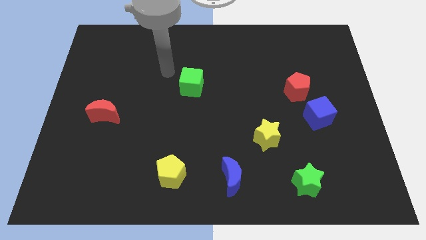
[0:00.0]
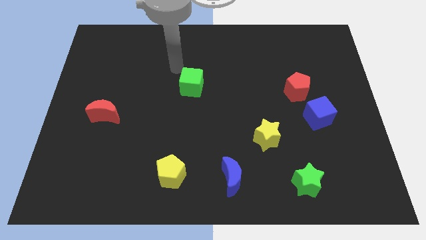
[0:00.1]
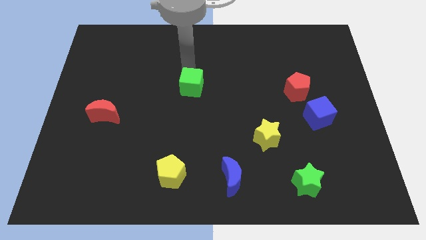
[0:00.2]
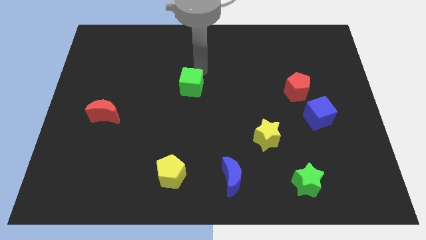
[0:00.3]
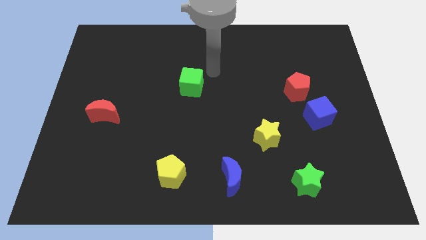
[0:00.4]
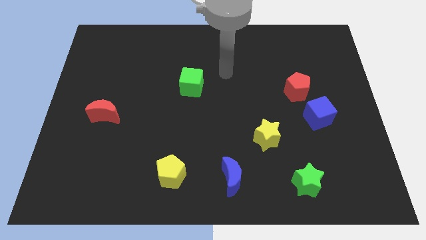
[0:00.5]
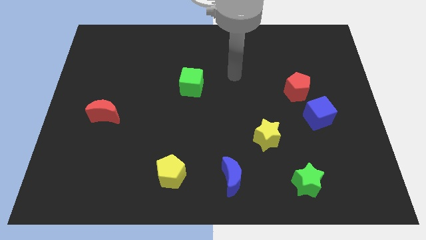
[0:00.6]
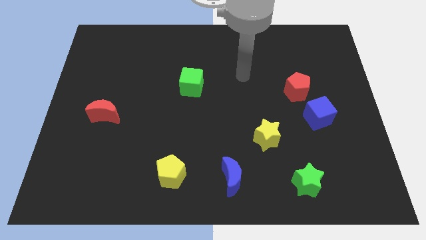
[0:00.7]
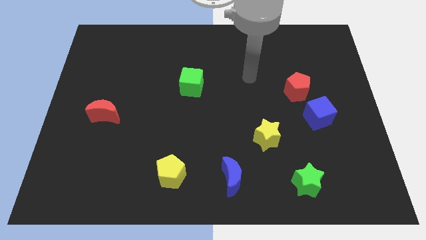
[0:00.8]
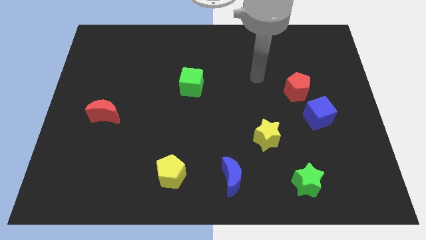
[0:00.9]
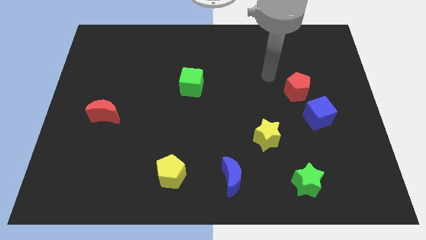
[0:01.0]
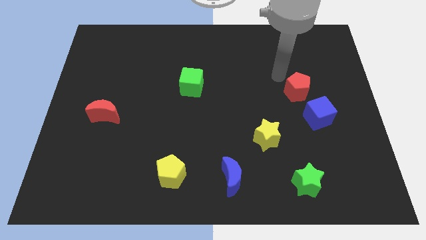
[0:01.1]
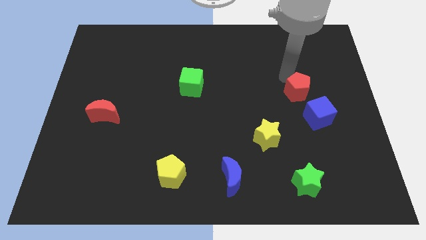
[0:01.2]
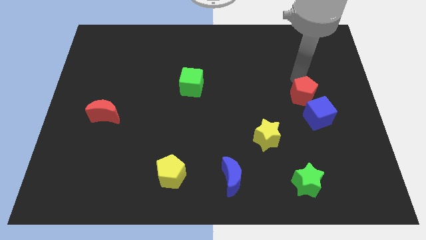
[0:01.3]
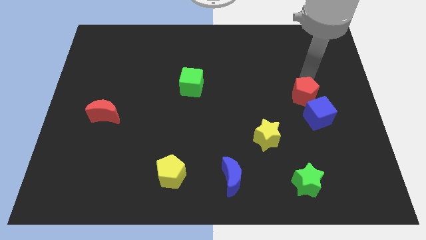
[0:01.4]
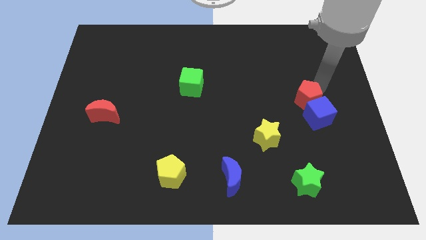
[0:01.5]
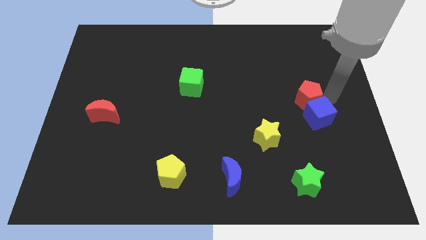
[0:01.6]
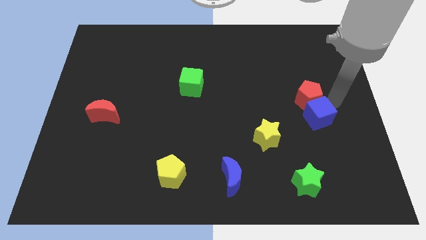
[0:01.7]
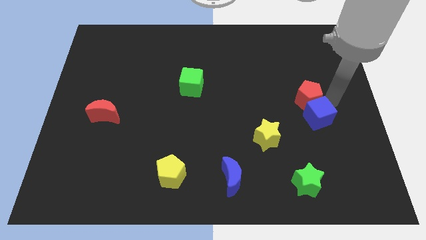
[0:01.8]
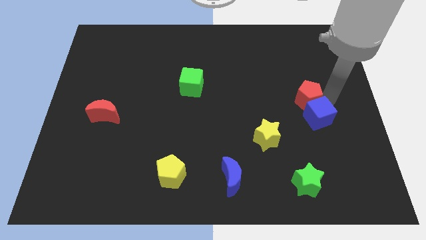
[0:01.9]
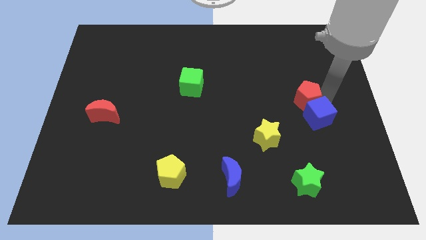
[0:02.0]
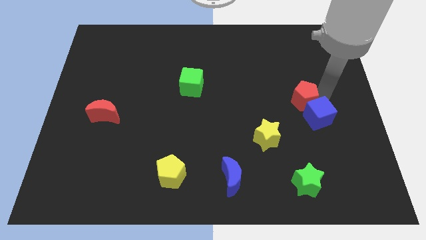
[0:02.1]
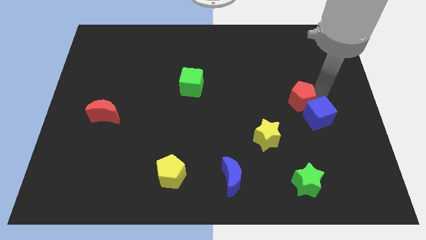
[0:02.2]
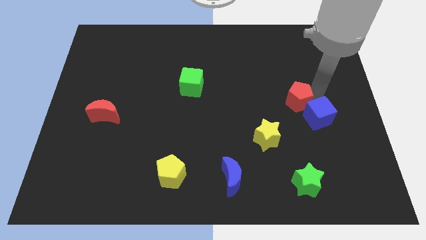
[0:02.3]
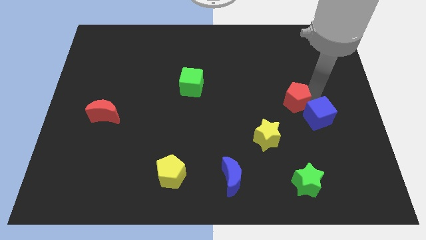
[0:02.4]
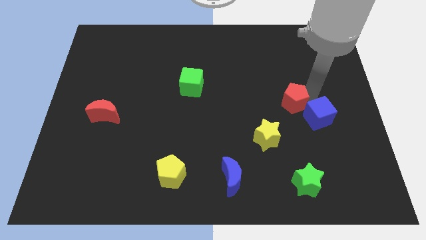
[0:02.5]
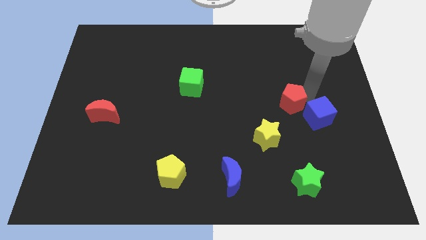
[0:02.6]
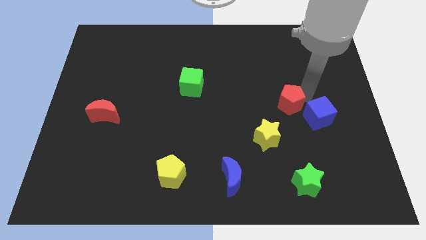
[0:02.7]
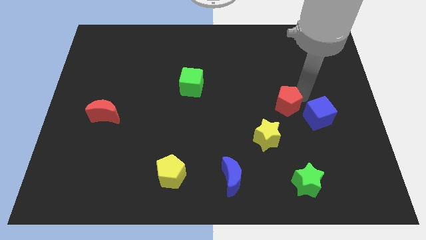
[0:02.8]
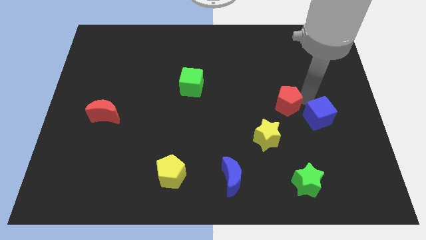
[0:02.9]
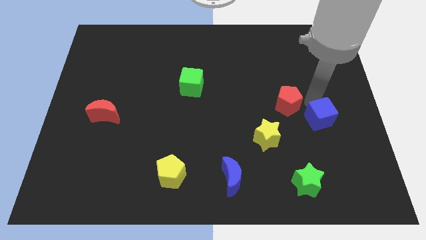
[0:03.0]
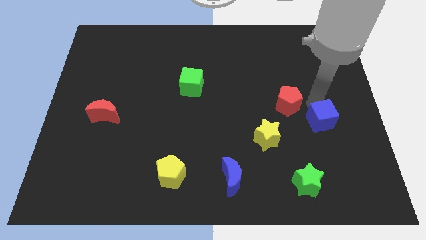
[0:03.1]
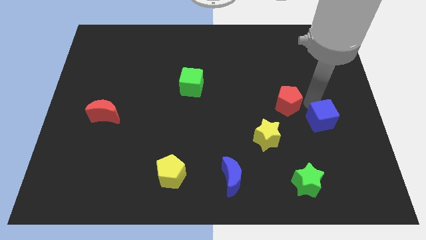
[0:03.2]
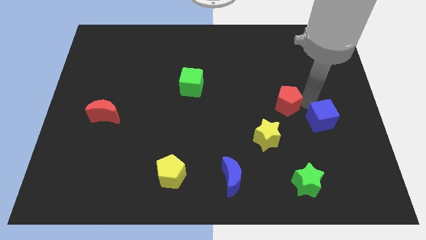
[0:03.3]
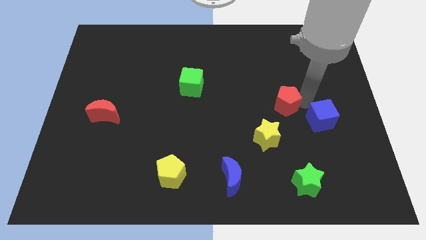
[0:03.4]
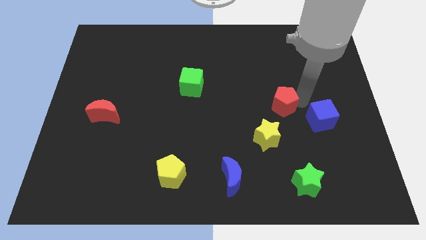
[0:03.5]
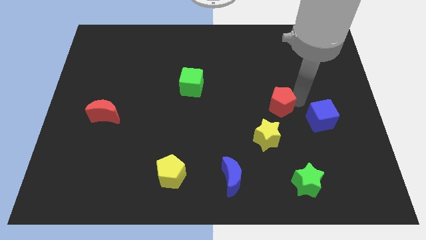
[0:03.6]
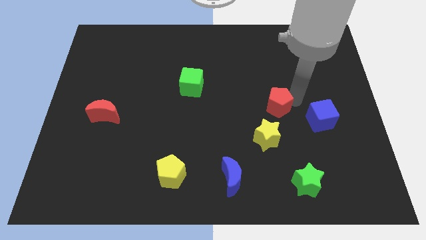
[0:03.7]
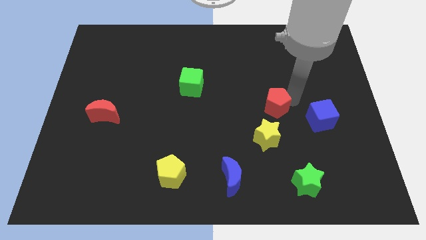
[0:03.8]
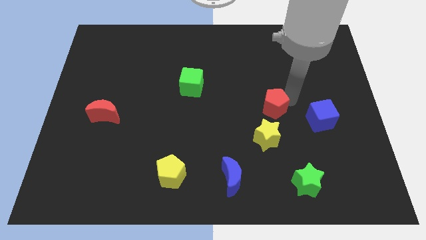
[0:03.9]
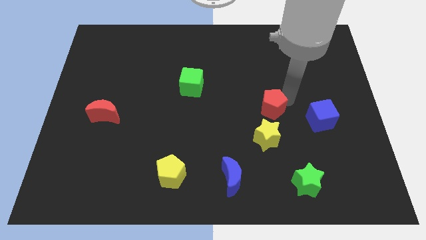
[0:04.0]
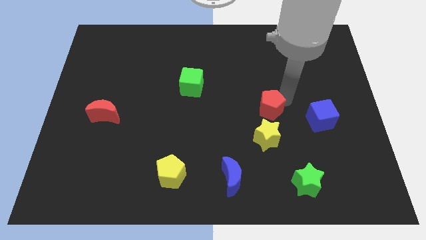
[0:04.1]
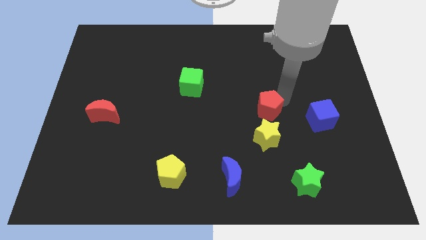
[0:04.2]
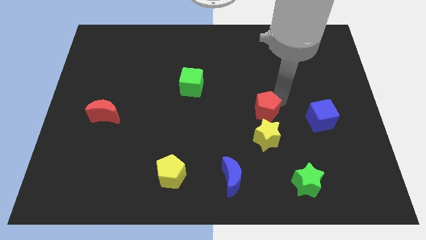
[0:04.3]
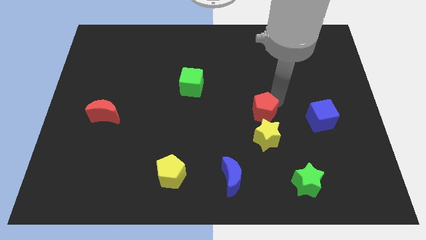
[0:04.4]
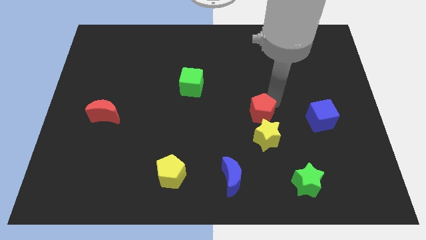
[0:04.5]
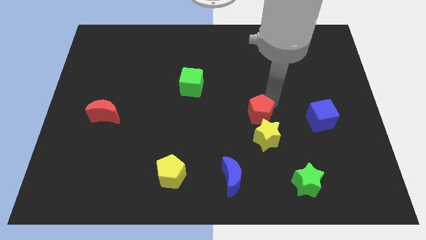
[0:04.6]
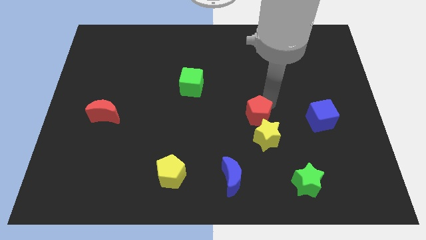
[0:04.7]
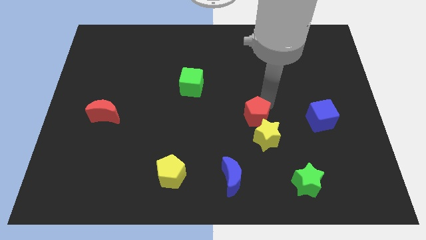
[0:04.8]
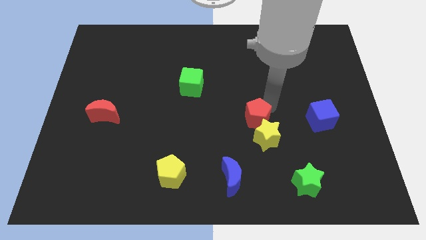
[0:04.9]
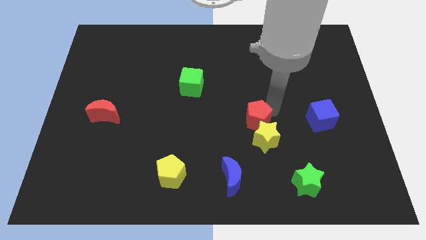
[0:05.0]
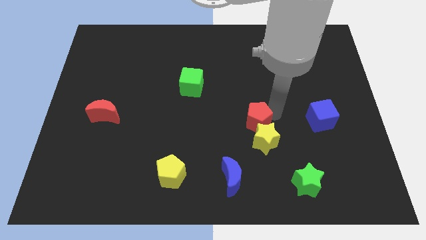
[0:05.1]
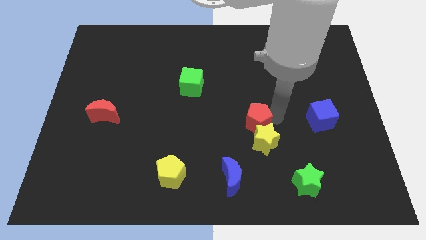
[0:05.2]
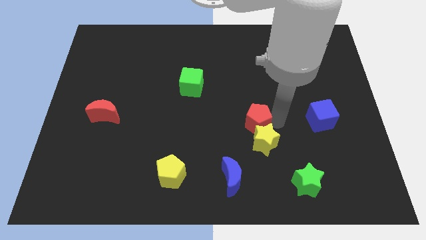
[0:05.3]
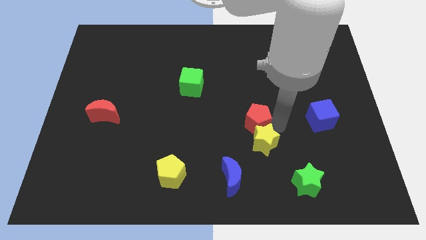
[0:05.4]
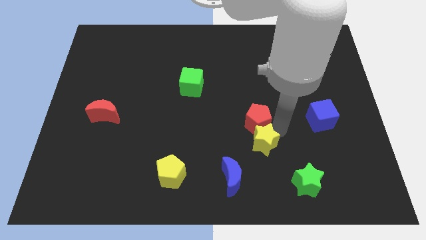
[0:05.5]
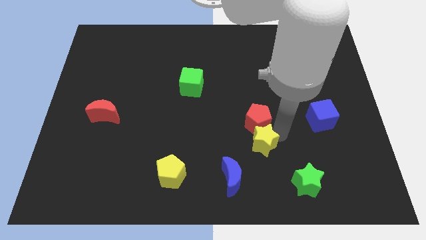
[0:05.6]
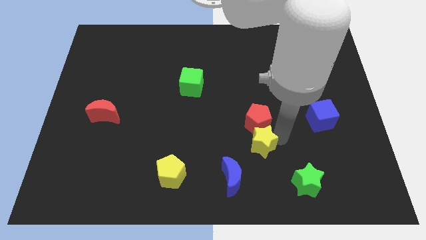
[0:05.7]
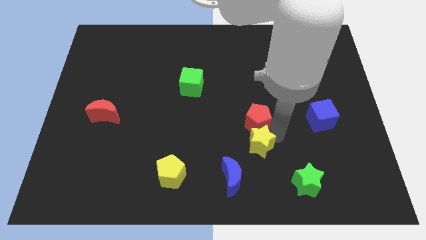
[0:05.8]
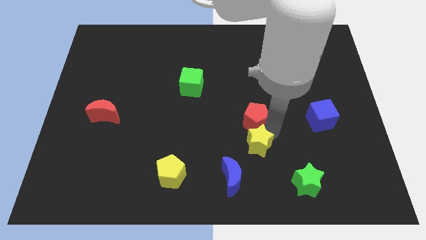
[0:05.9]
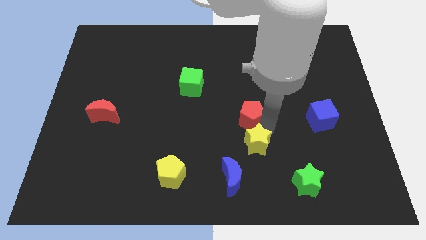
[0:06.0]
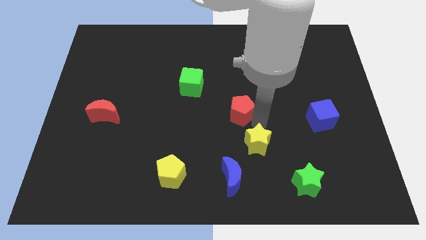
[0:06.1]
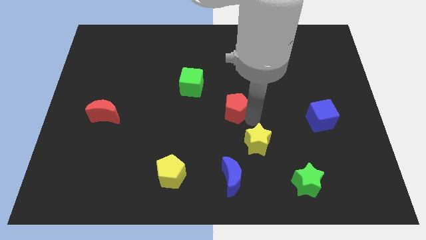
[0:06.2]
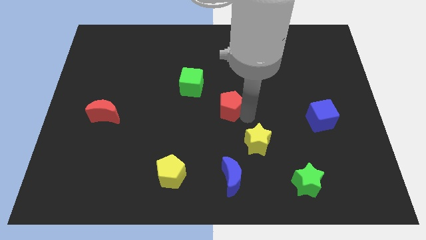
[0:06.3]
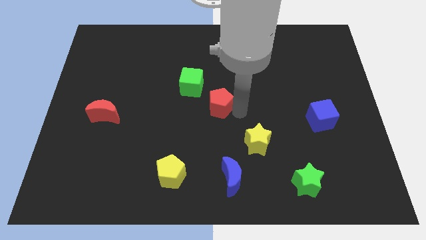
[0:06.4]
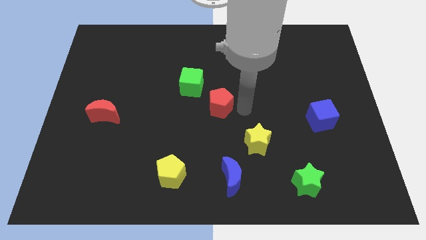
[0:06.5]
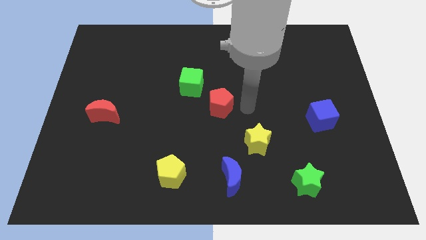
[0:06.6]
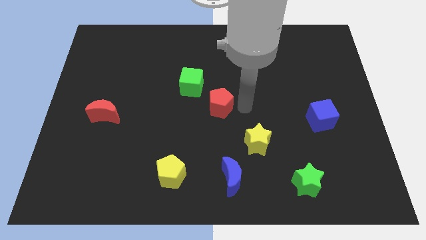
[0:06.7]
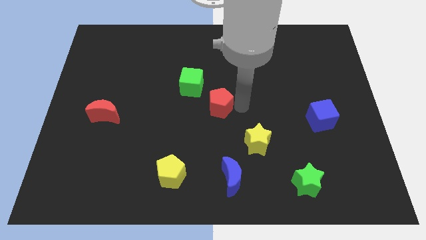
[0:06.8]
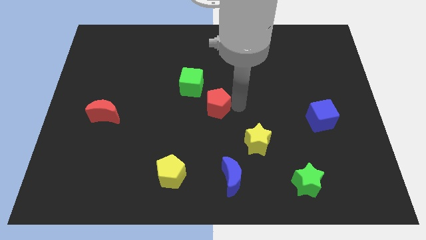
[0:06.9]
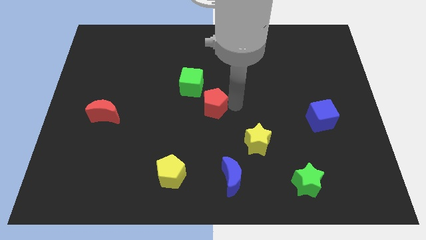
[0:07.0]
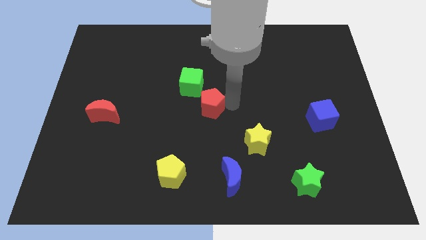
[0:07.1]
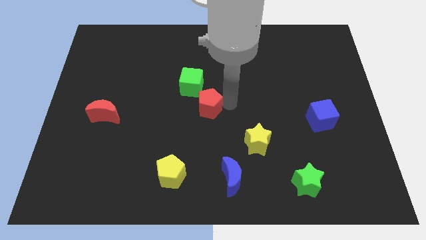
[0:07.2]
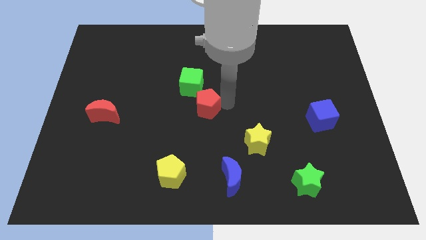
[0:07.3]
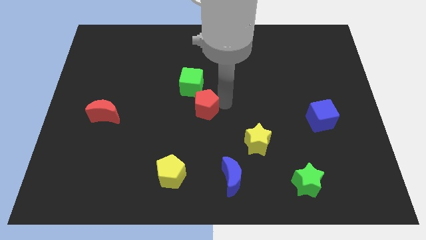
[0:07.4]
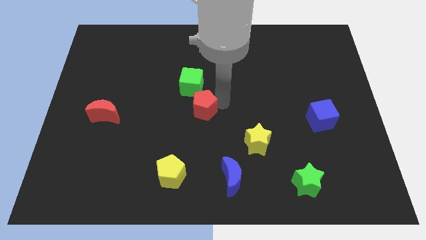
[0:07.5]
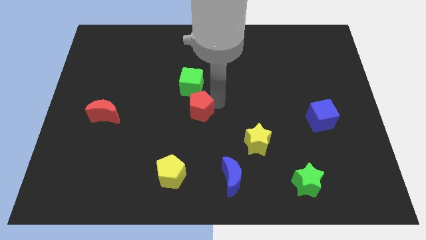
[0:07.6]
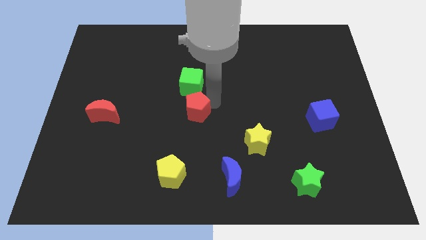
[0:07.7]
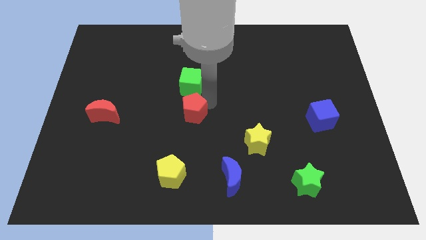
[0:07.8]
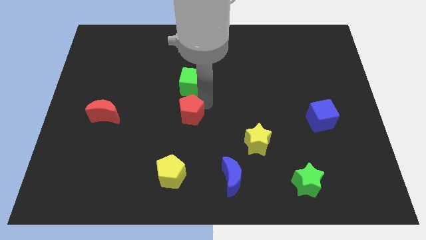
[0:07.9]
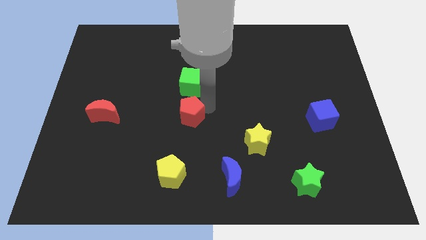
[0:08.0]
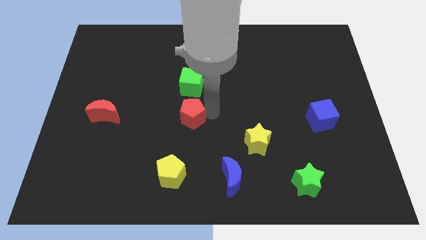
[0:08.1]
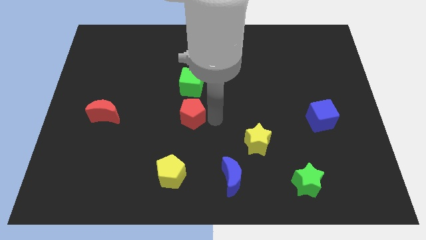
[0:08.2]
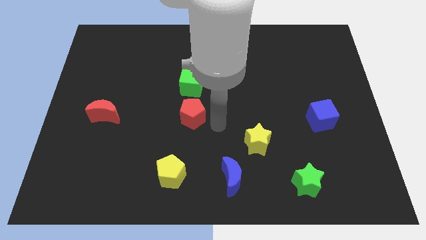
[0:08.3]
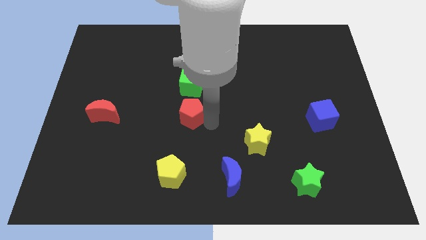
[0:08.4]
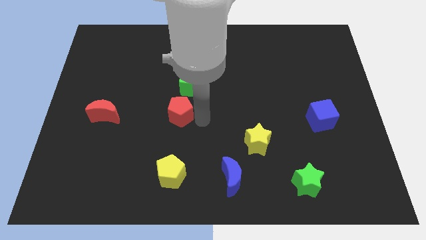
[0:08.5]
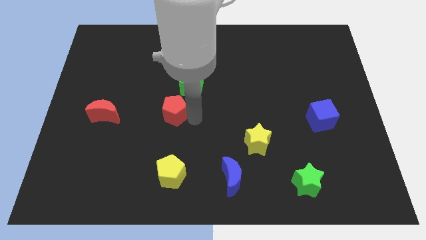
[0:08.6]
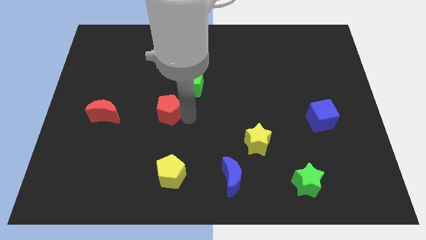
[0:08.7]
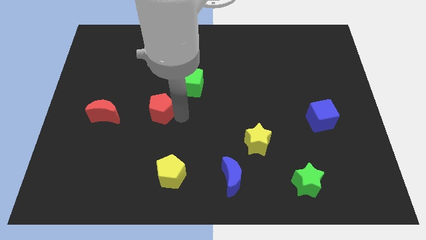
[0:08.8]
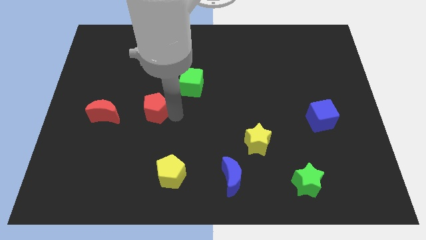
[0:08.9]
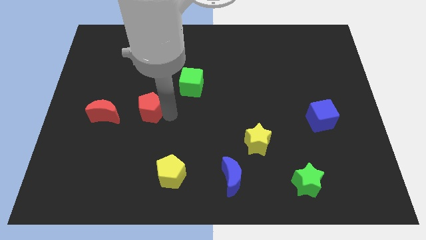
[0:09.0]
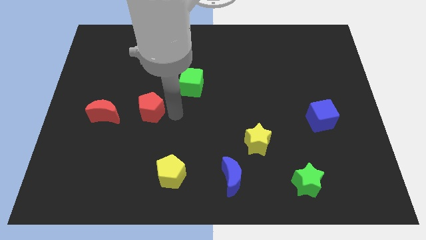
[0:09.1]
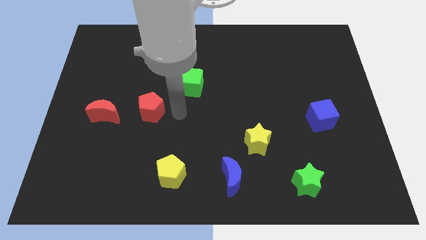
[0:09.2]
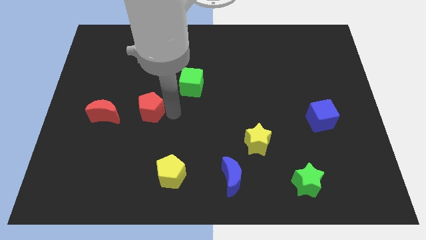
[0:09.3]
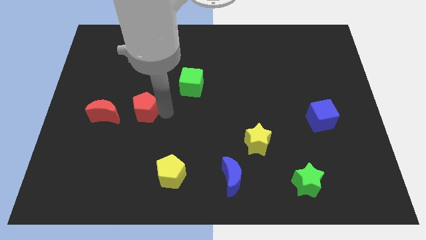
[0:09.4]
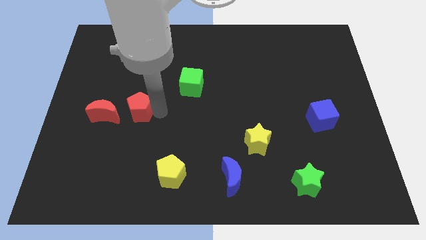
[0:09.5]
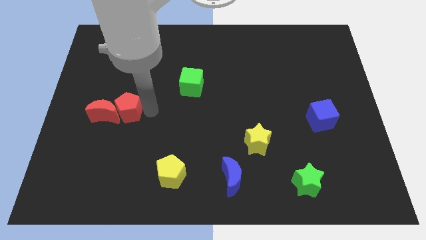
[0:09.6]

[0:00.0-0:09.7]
push the red pentagon close to the red moon
